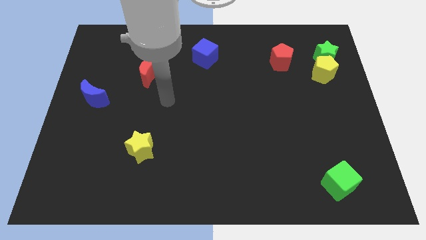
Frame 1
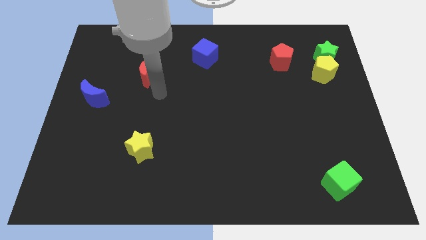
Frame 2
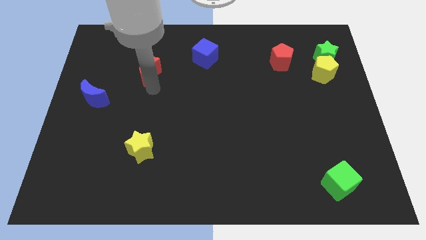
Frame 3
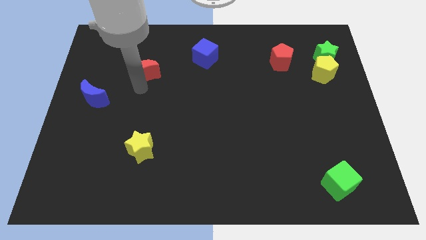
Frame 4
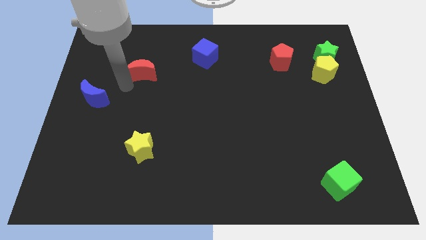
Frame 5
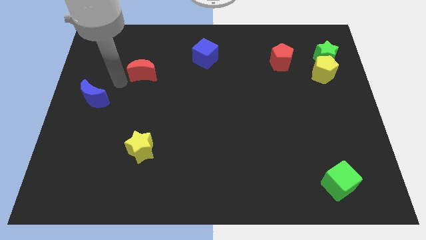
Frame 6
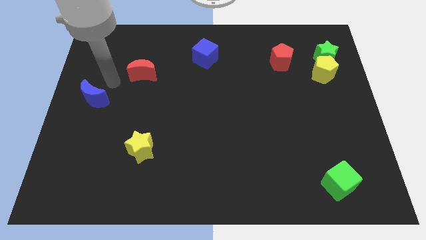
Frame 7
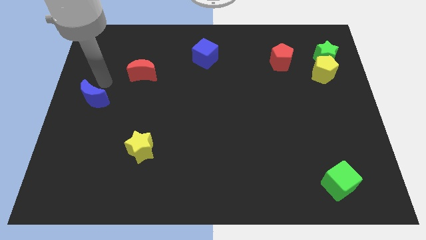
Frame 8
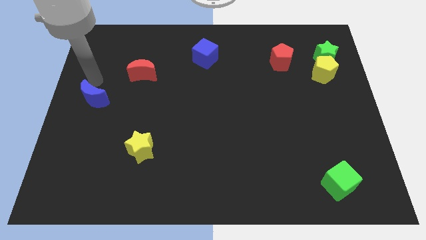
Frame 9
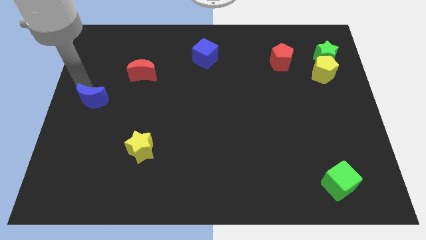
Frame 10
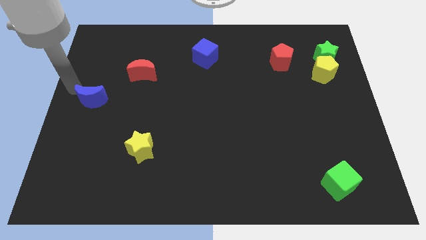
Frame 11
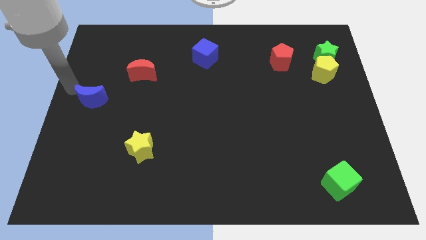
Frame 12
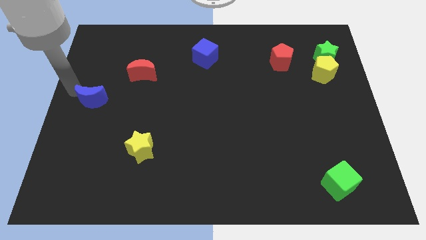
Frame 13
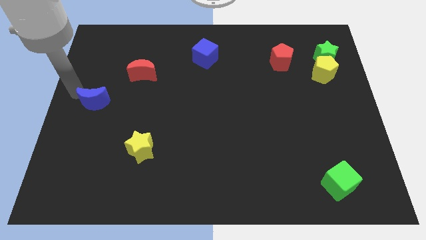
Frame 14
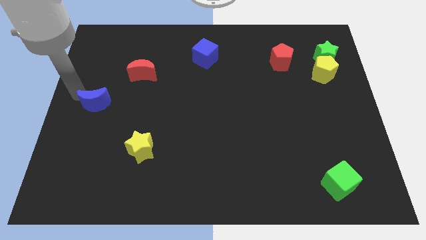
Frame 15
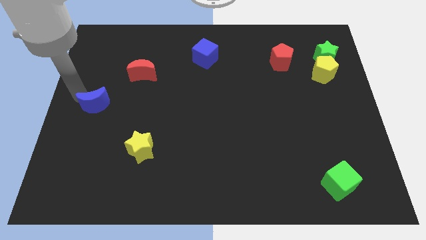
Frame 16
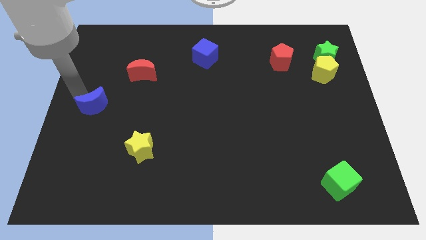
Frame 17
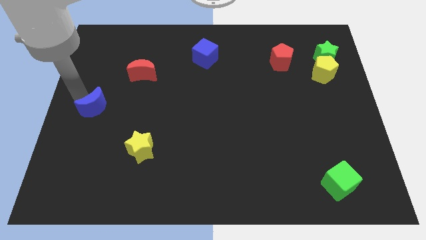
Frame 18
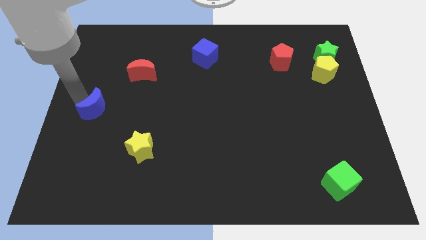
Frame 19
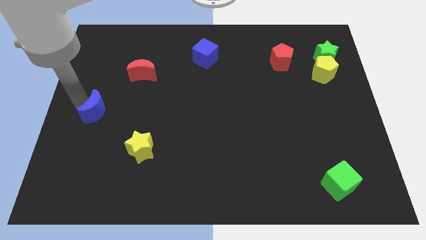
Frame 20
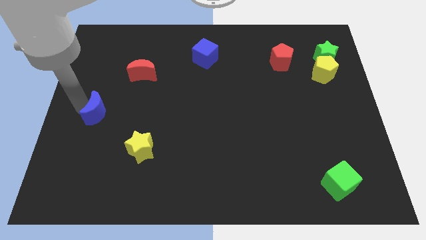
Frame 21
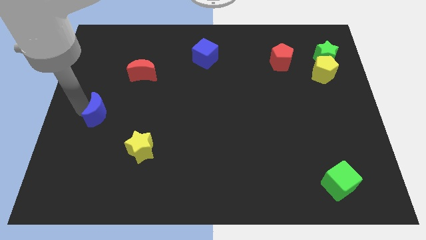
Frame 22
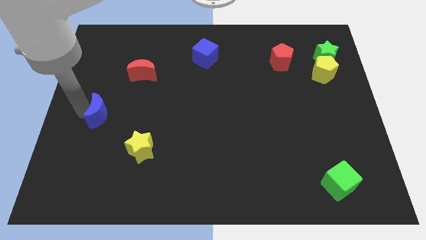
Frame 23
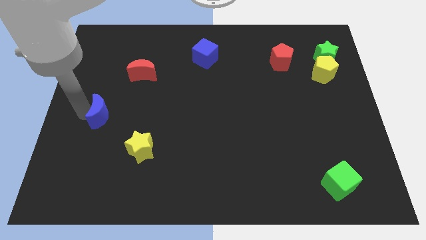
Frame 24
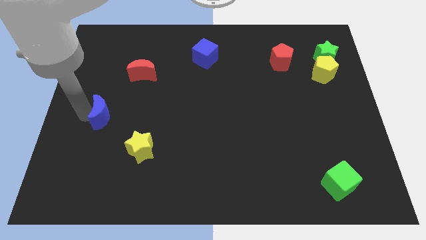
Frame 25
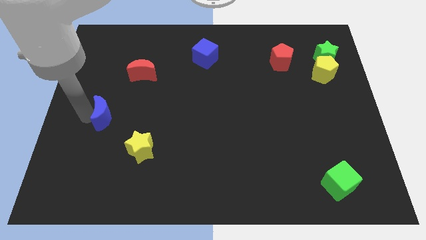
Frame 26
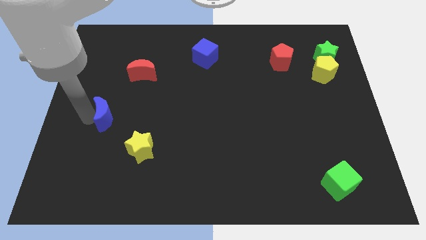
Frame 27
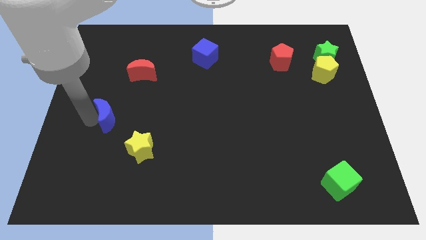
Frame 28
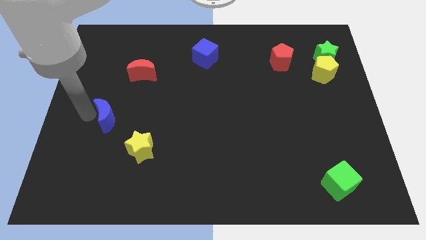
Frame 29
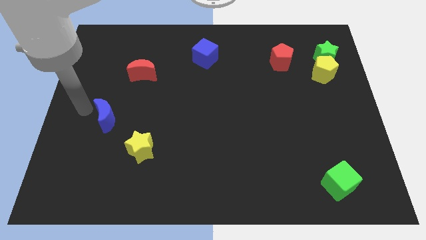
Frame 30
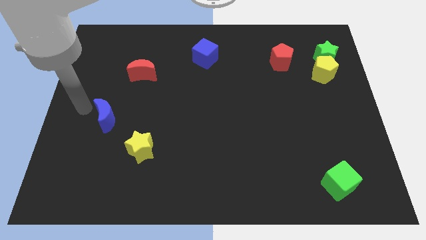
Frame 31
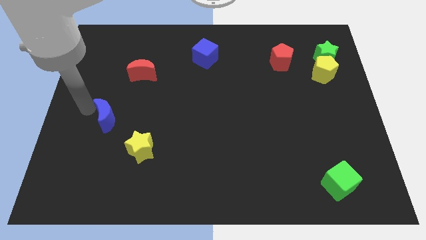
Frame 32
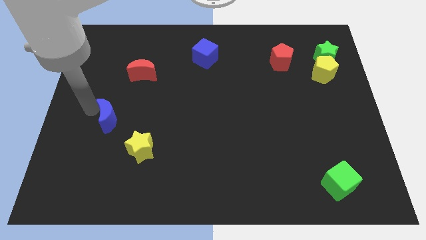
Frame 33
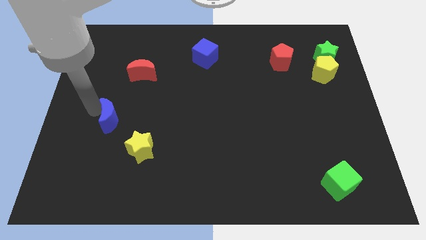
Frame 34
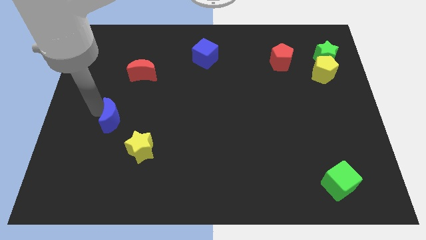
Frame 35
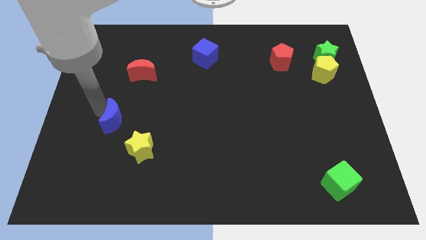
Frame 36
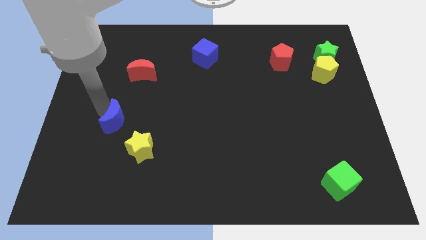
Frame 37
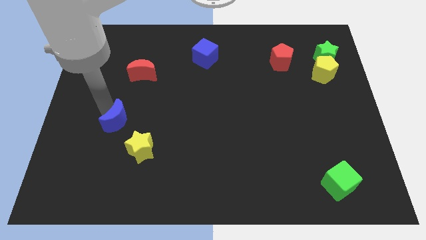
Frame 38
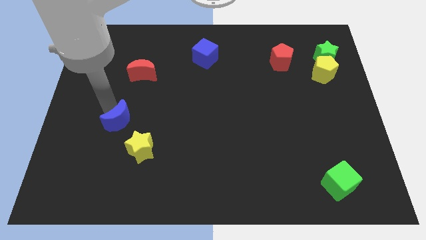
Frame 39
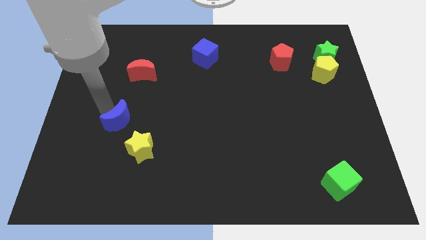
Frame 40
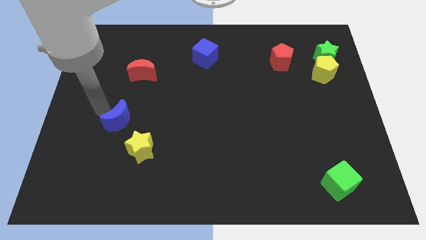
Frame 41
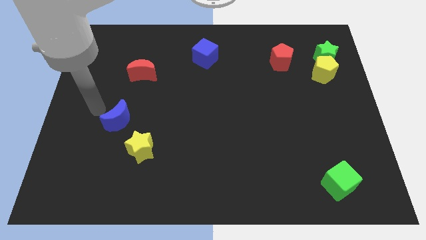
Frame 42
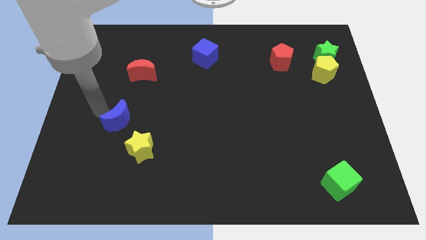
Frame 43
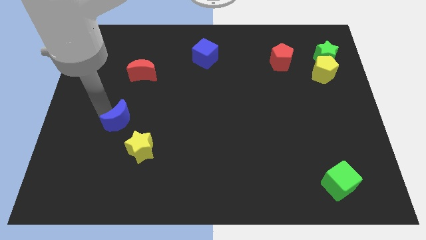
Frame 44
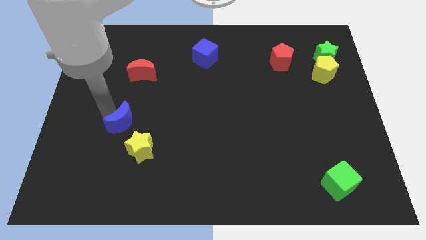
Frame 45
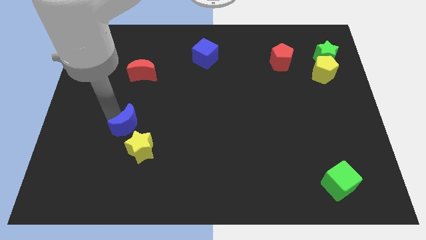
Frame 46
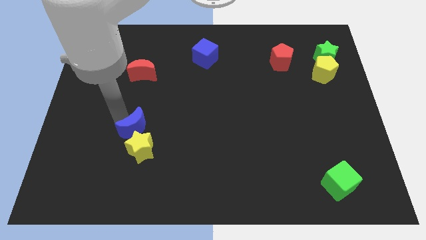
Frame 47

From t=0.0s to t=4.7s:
put the blue moon towards the yellow star

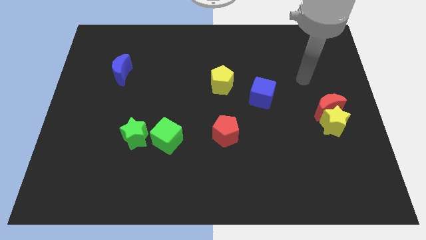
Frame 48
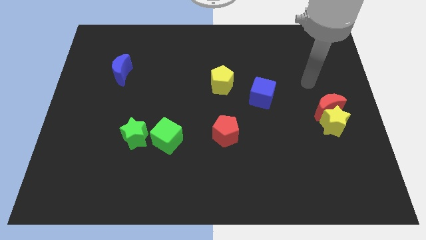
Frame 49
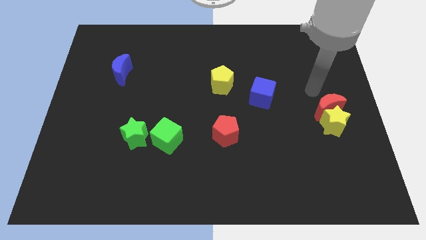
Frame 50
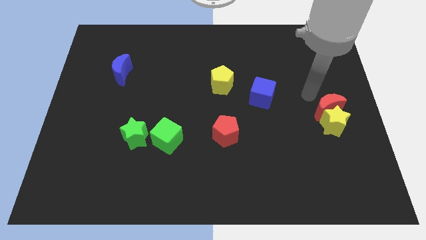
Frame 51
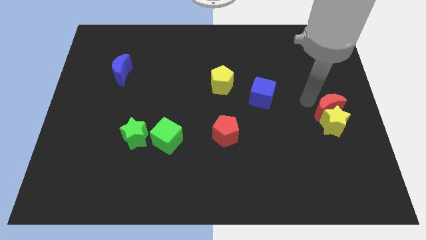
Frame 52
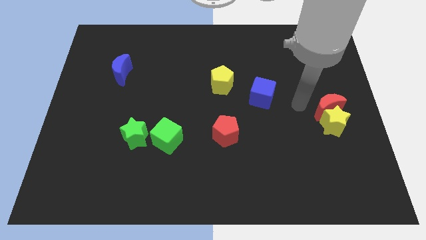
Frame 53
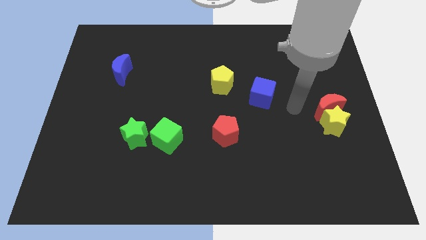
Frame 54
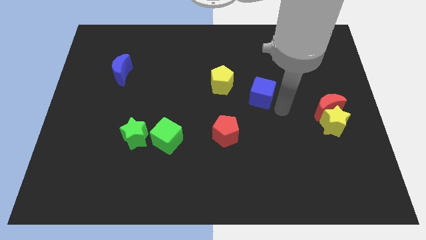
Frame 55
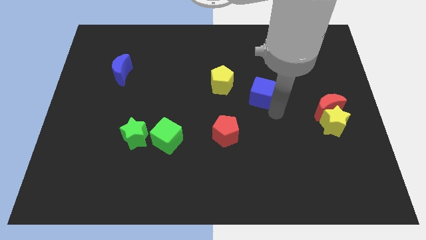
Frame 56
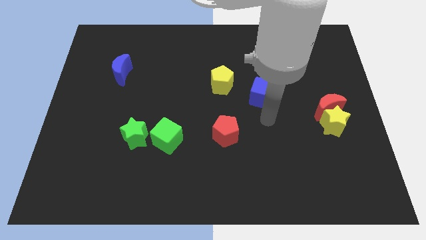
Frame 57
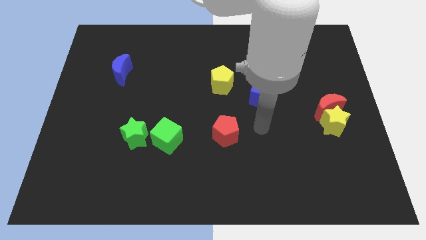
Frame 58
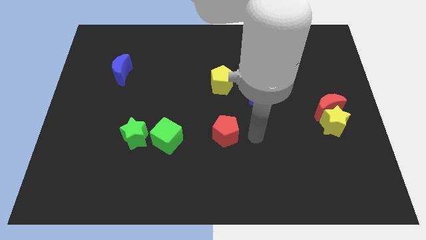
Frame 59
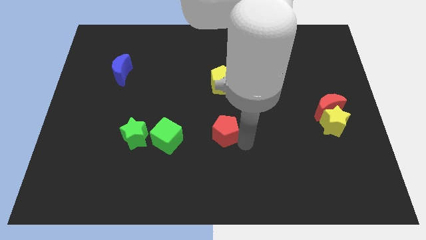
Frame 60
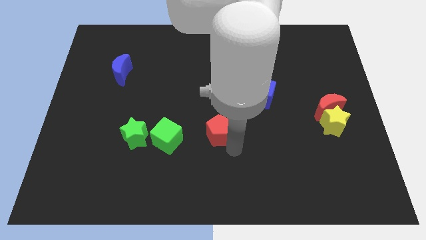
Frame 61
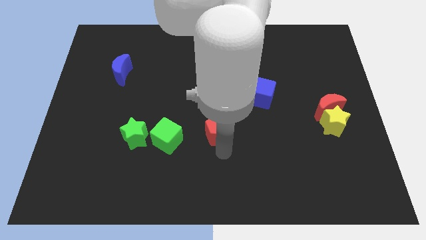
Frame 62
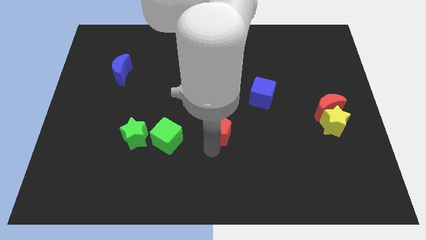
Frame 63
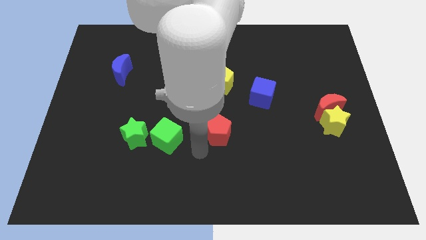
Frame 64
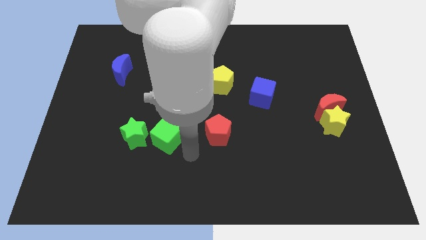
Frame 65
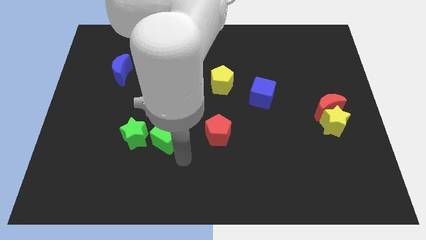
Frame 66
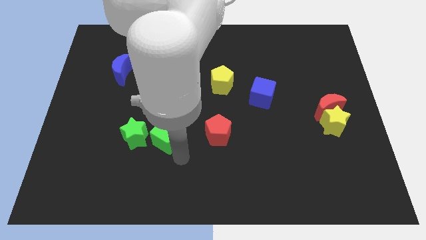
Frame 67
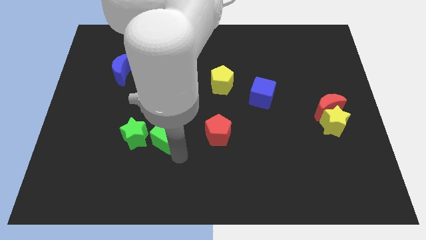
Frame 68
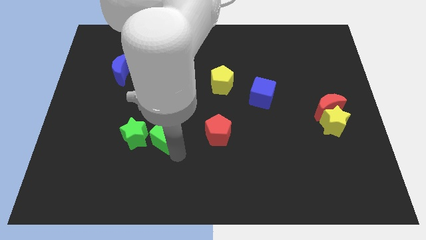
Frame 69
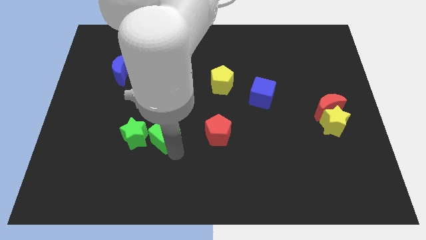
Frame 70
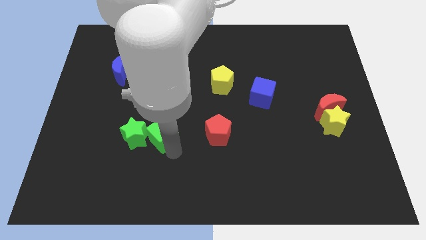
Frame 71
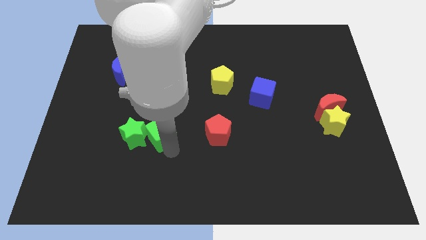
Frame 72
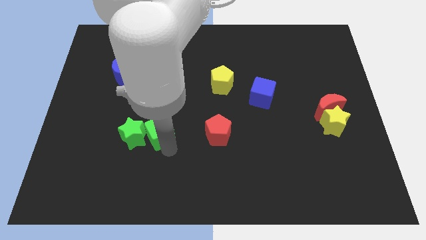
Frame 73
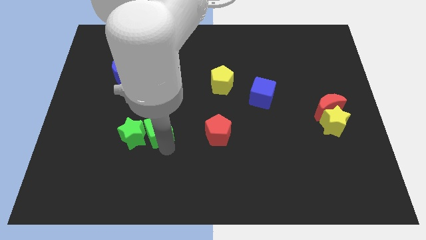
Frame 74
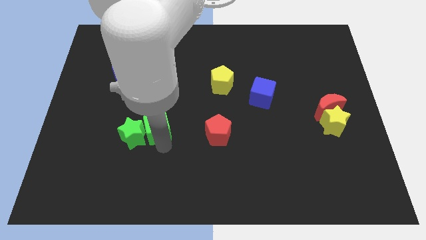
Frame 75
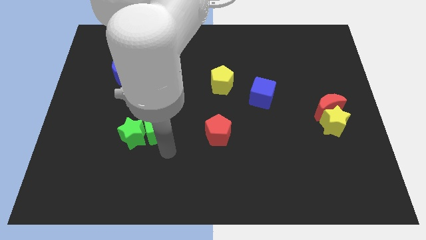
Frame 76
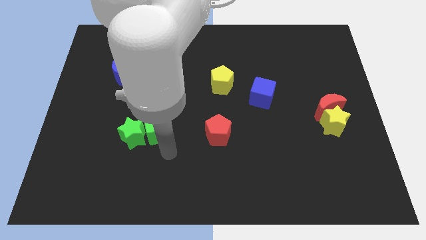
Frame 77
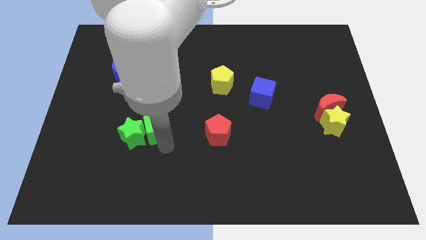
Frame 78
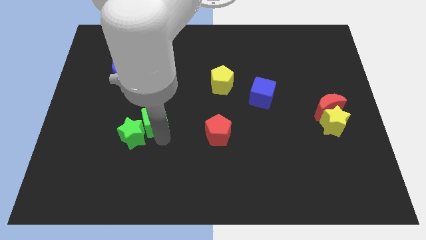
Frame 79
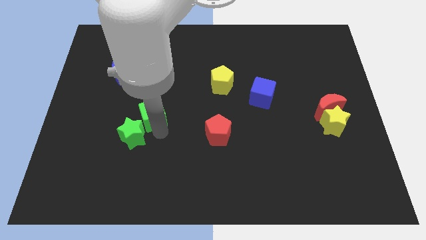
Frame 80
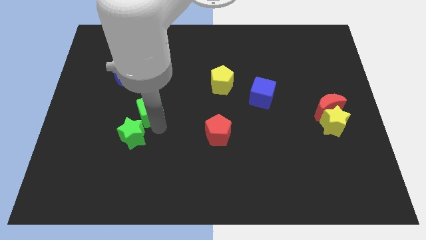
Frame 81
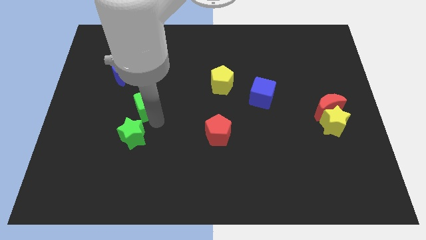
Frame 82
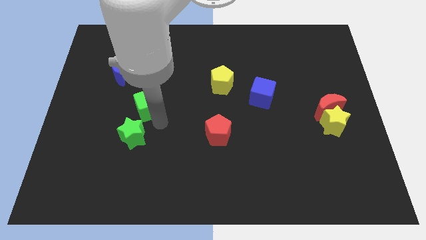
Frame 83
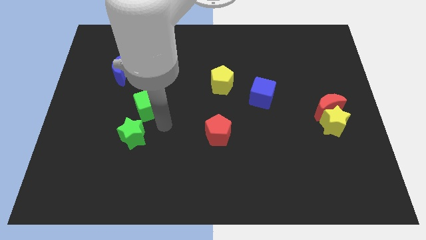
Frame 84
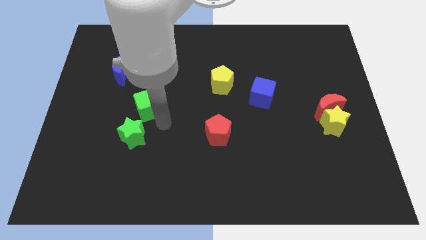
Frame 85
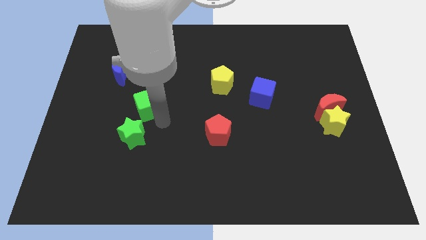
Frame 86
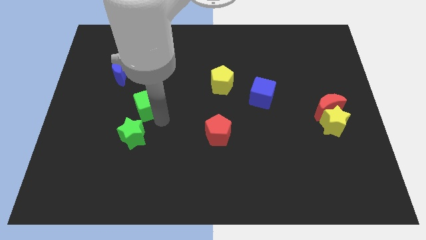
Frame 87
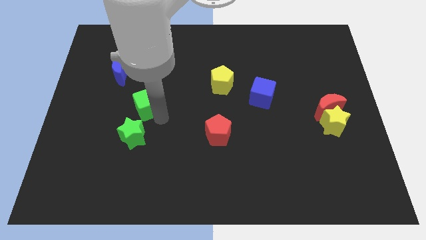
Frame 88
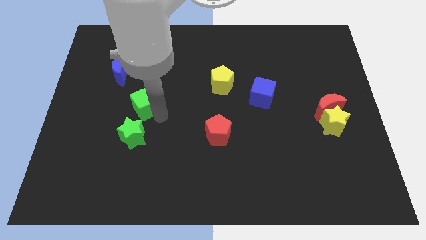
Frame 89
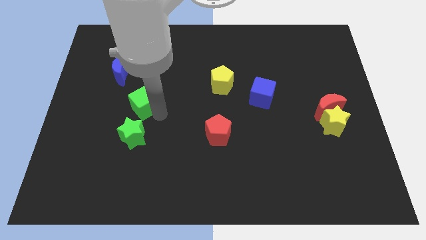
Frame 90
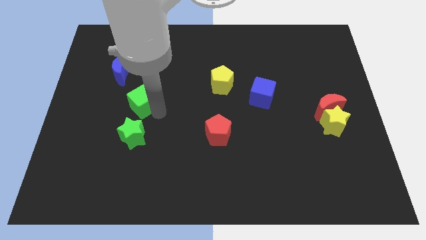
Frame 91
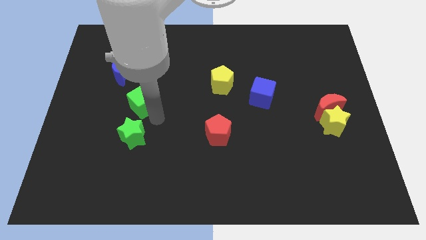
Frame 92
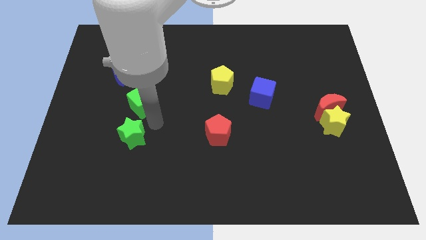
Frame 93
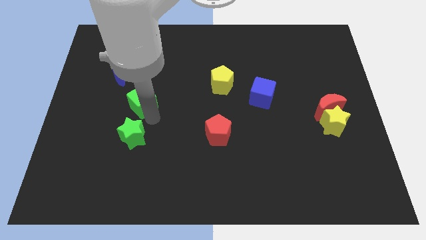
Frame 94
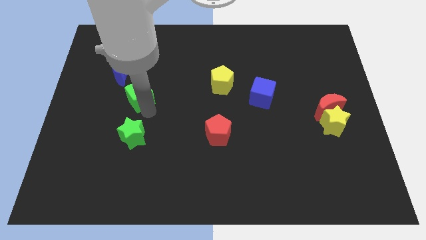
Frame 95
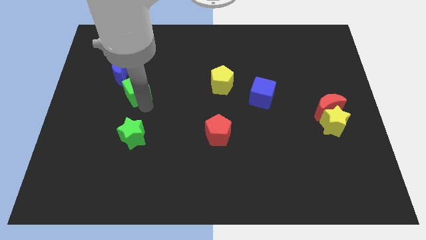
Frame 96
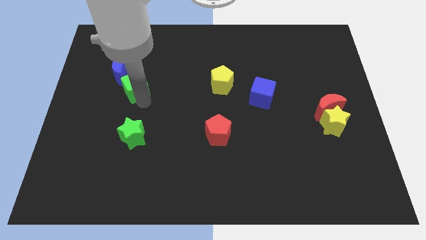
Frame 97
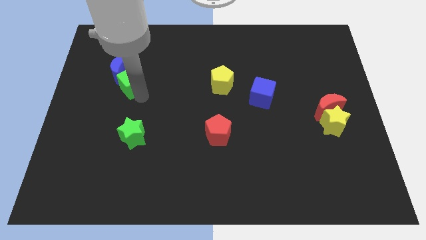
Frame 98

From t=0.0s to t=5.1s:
put the green cube to the blue moon
